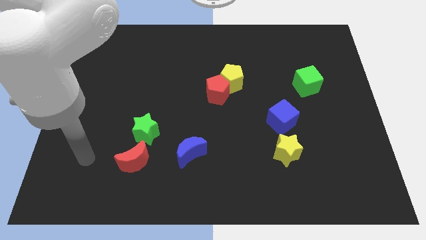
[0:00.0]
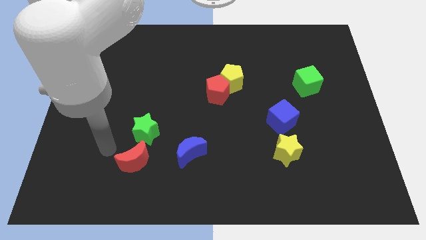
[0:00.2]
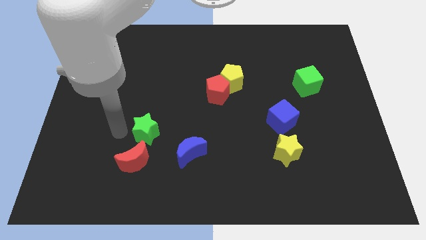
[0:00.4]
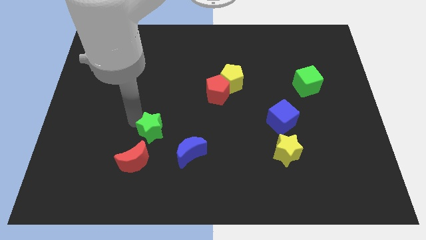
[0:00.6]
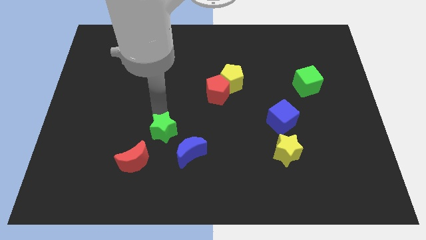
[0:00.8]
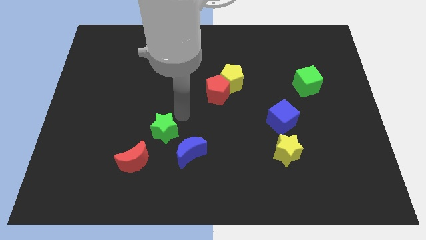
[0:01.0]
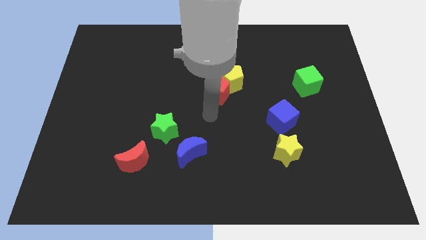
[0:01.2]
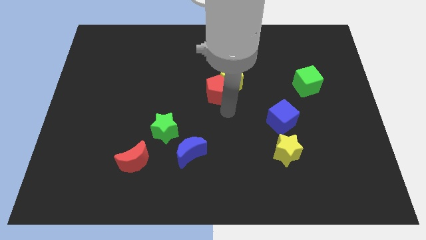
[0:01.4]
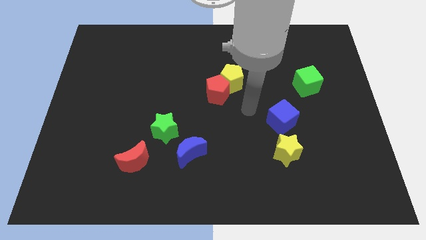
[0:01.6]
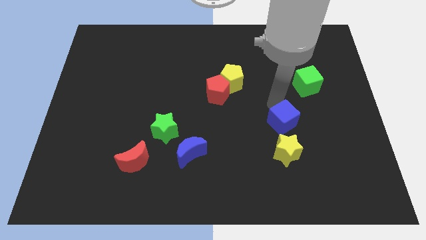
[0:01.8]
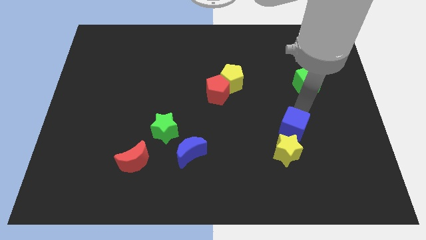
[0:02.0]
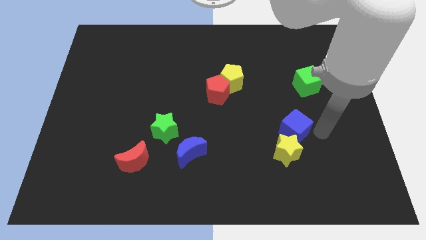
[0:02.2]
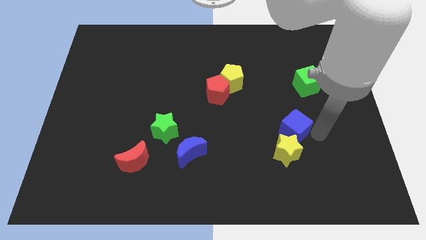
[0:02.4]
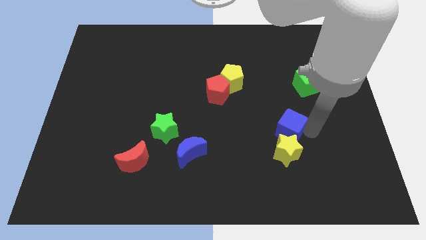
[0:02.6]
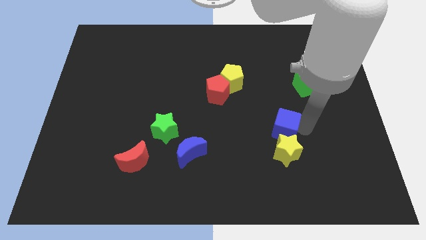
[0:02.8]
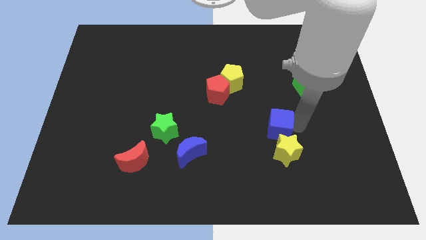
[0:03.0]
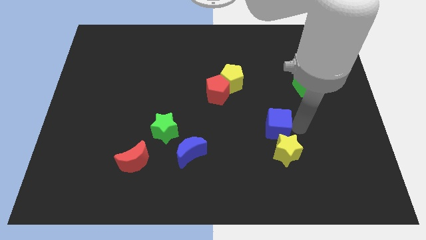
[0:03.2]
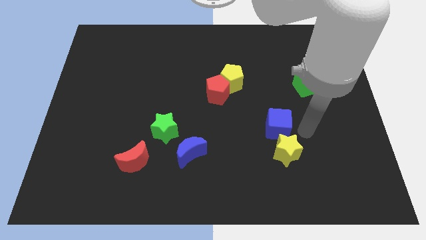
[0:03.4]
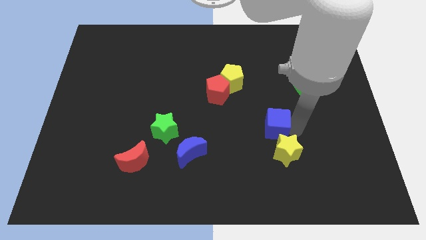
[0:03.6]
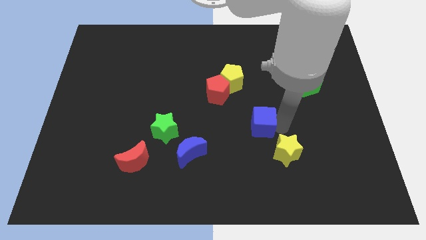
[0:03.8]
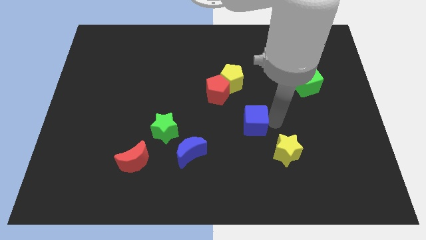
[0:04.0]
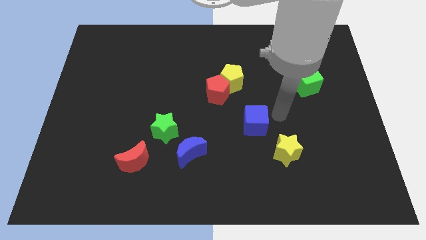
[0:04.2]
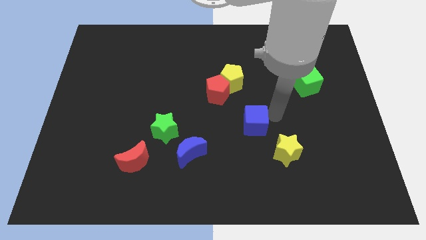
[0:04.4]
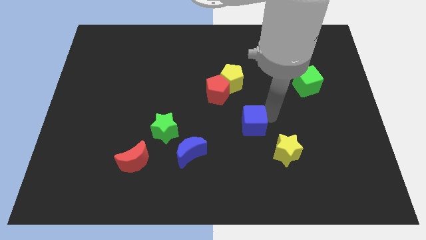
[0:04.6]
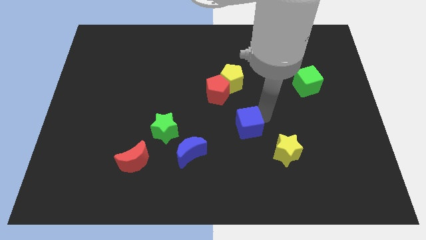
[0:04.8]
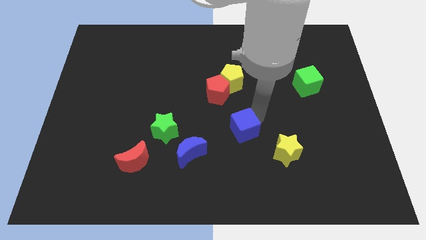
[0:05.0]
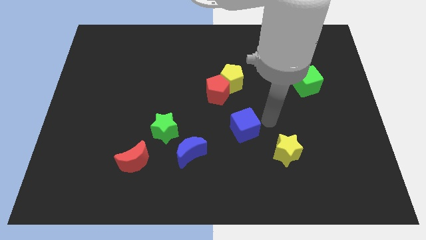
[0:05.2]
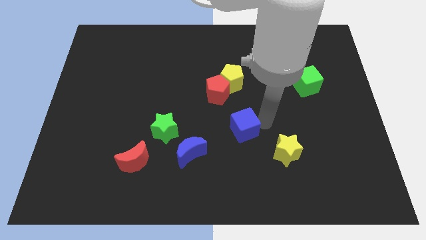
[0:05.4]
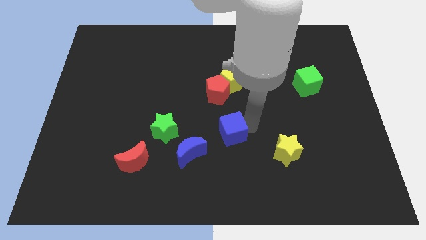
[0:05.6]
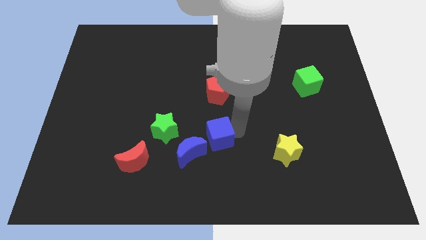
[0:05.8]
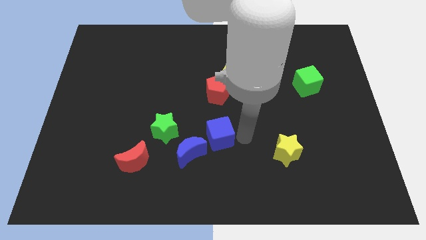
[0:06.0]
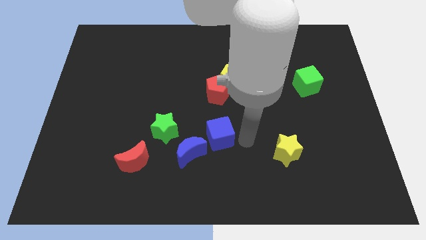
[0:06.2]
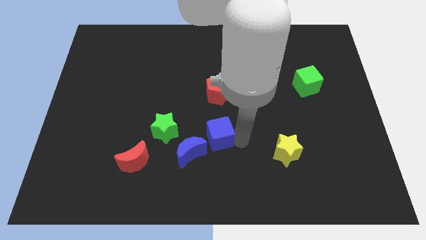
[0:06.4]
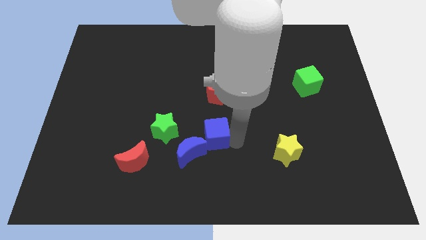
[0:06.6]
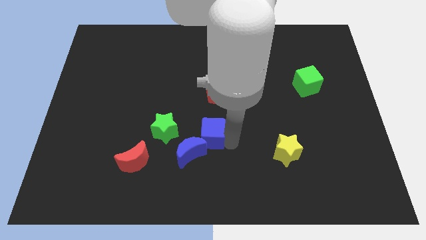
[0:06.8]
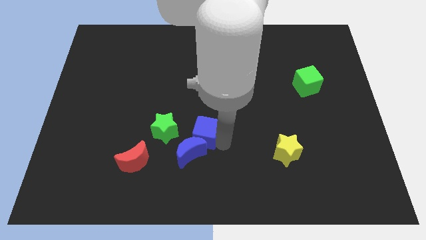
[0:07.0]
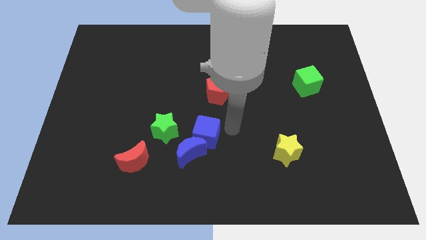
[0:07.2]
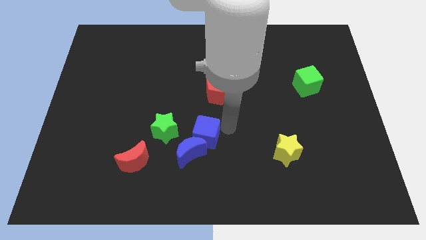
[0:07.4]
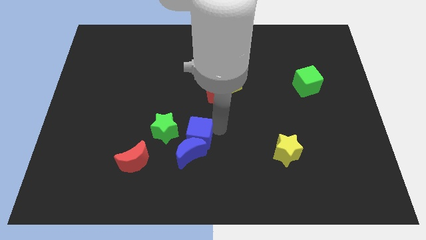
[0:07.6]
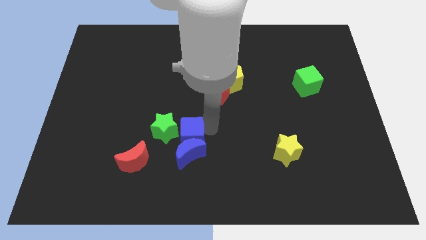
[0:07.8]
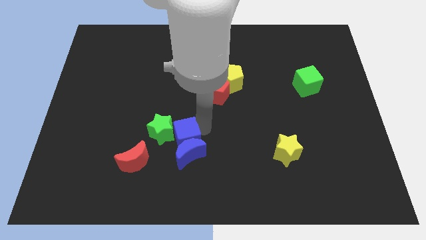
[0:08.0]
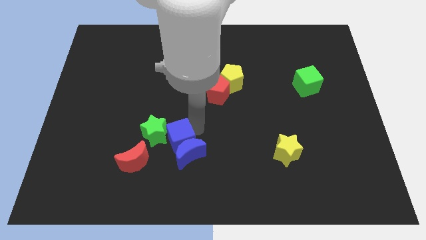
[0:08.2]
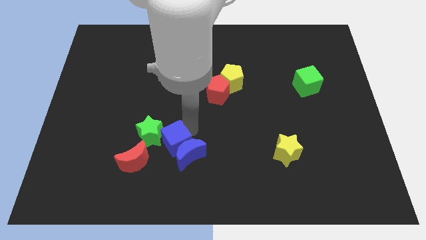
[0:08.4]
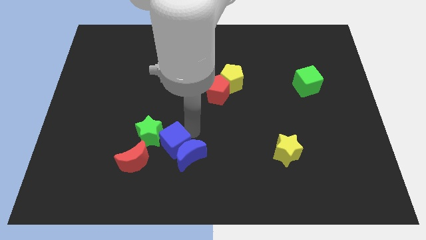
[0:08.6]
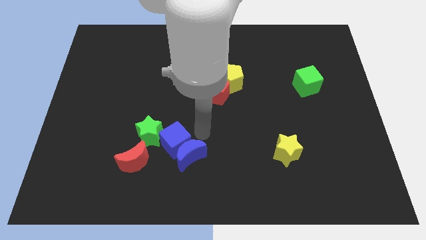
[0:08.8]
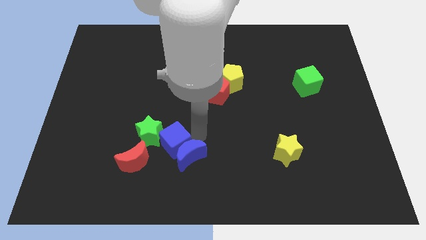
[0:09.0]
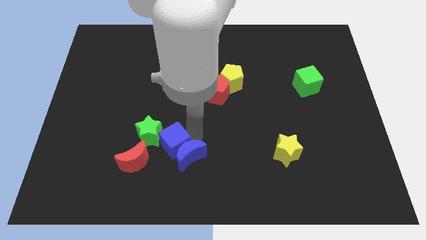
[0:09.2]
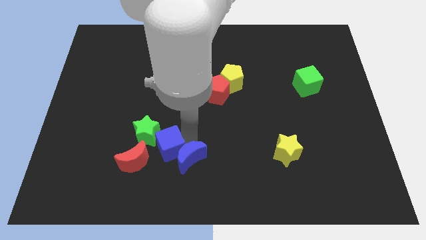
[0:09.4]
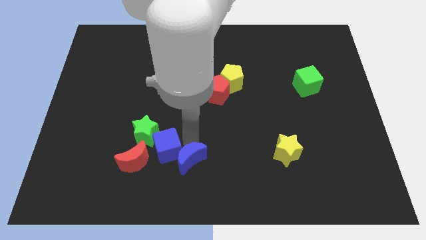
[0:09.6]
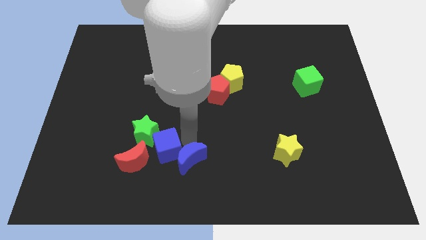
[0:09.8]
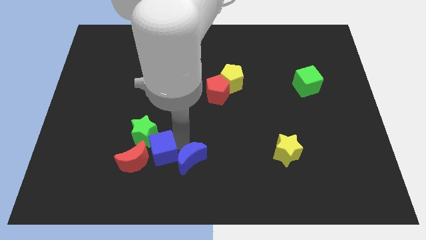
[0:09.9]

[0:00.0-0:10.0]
put the blue cube to the red moon

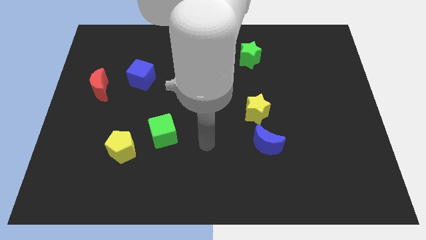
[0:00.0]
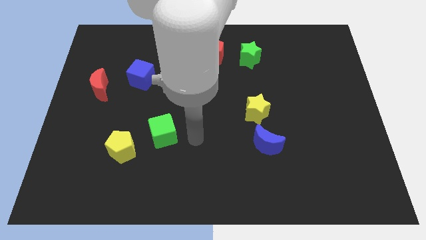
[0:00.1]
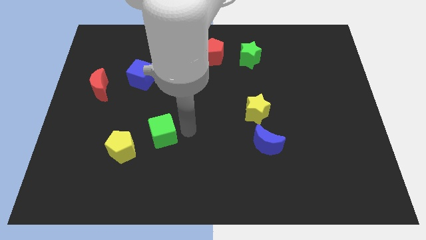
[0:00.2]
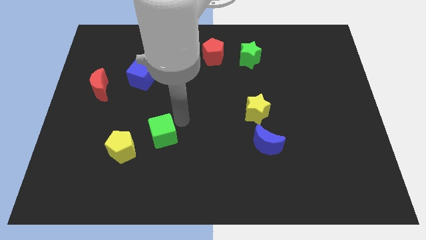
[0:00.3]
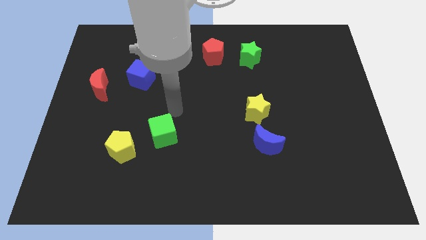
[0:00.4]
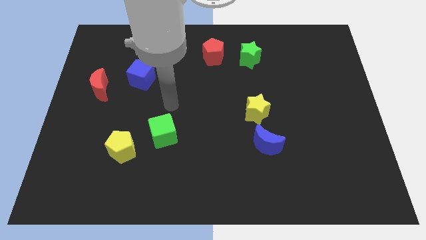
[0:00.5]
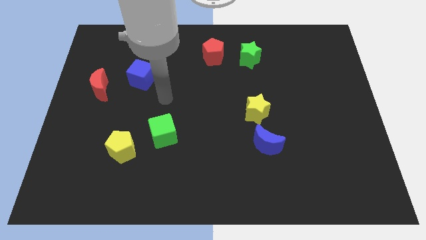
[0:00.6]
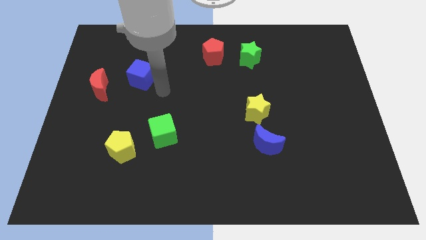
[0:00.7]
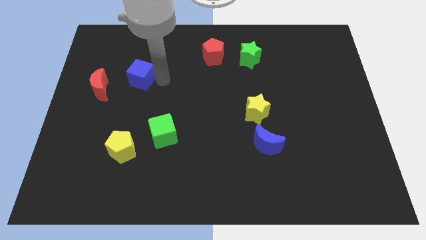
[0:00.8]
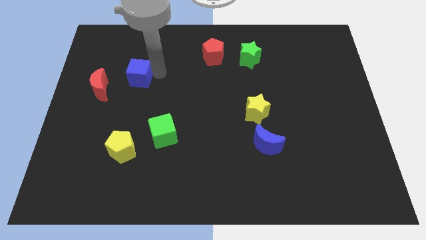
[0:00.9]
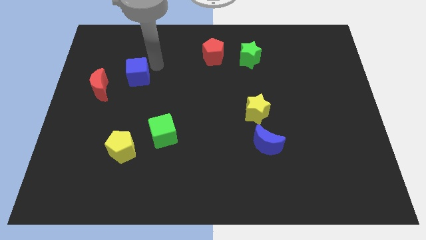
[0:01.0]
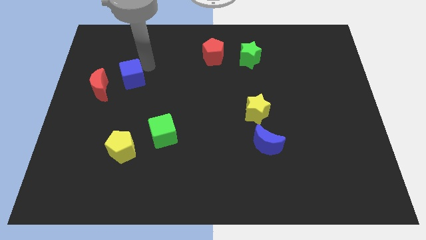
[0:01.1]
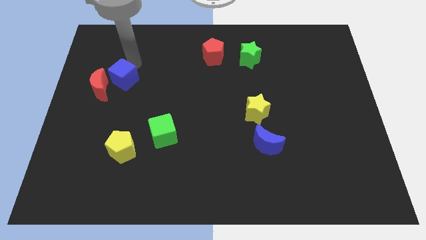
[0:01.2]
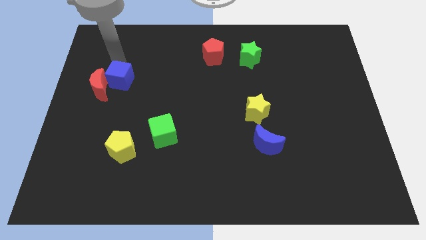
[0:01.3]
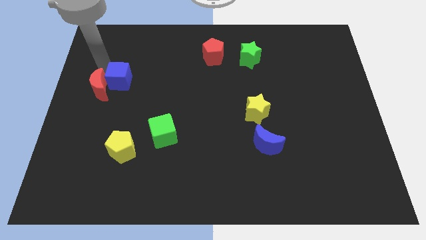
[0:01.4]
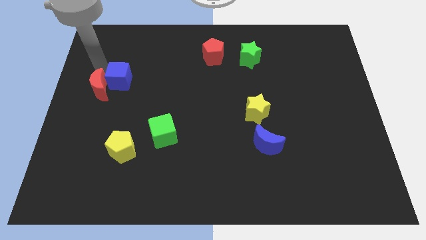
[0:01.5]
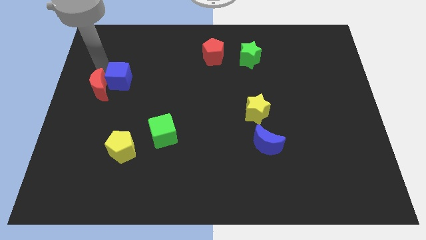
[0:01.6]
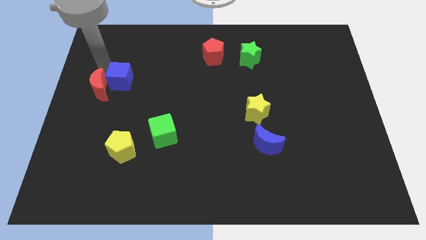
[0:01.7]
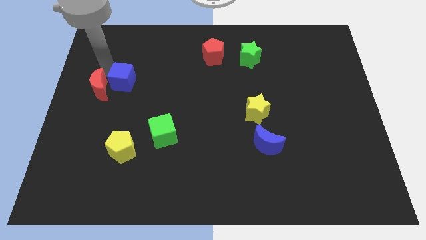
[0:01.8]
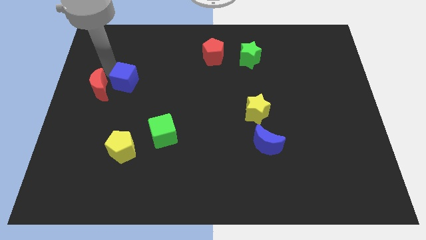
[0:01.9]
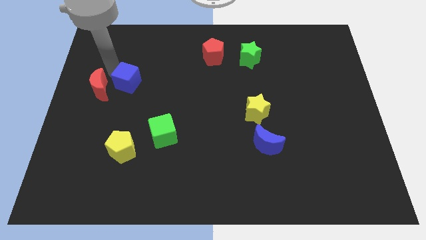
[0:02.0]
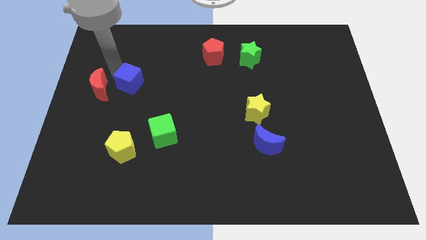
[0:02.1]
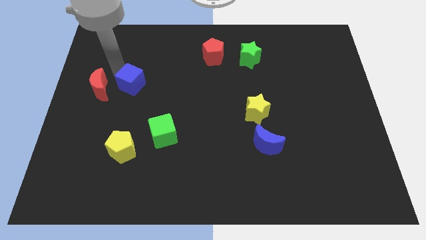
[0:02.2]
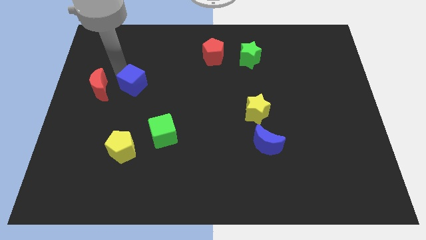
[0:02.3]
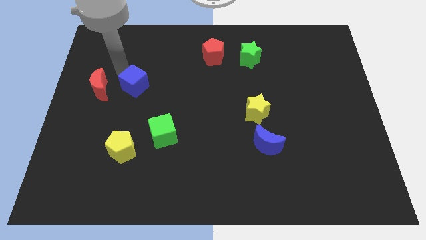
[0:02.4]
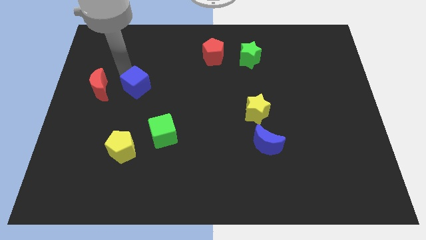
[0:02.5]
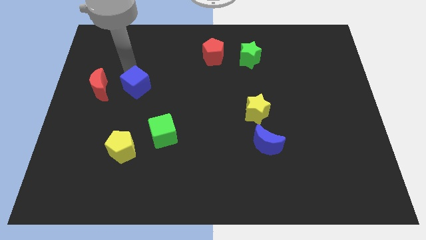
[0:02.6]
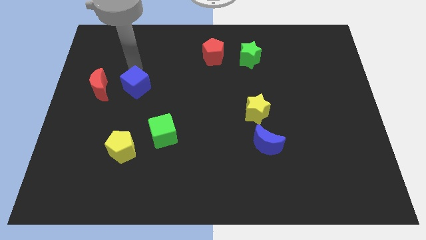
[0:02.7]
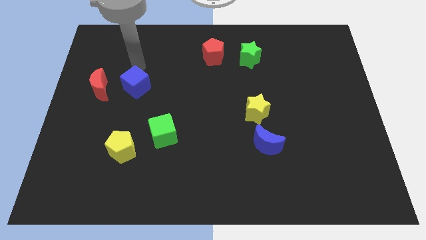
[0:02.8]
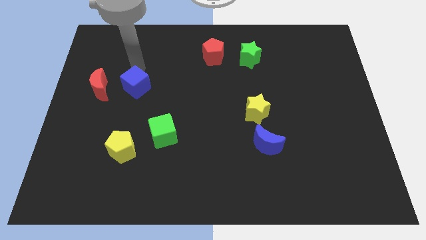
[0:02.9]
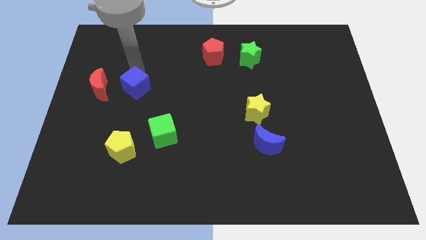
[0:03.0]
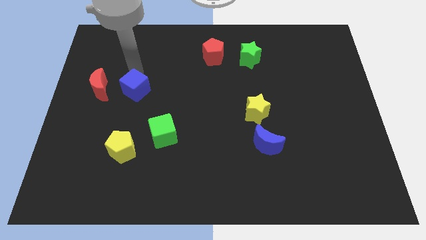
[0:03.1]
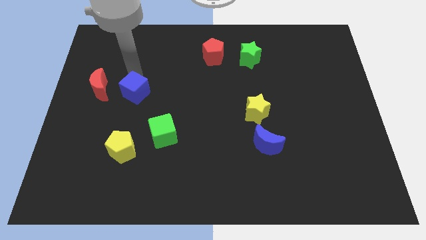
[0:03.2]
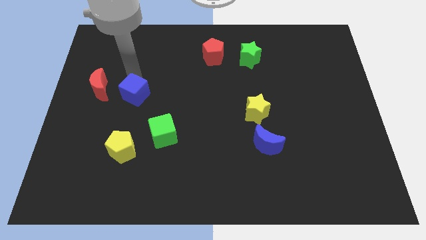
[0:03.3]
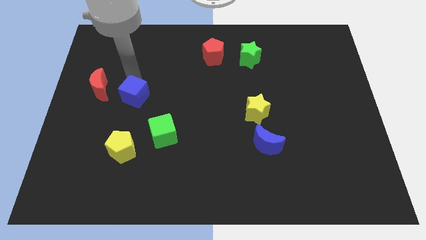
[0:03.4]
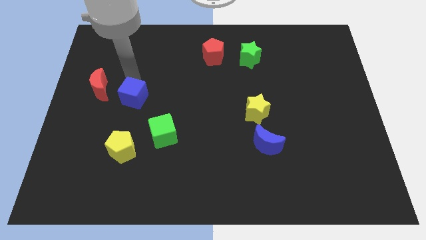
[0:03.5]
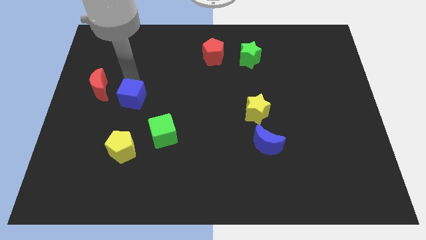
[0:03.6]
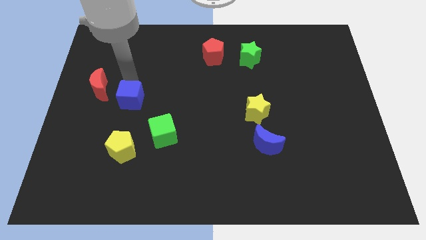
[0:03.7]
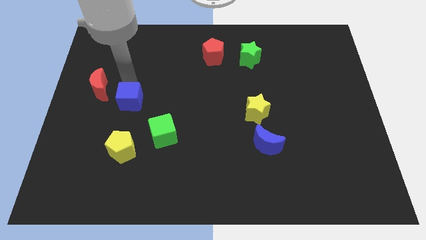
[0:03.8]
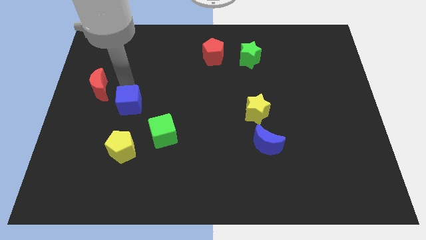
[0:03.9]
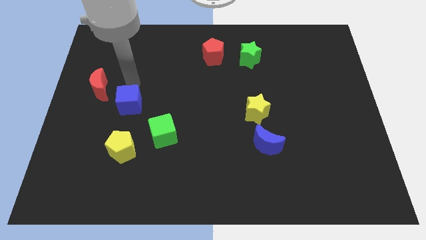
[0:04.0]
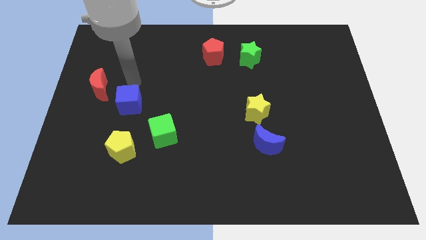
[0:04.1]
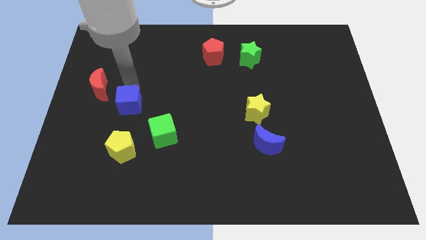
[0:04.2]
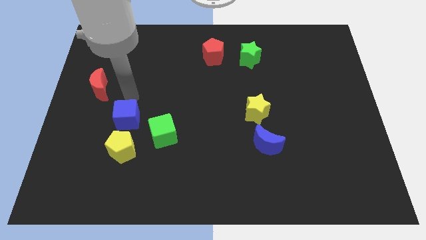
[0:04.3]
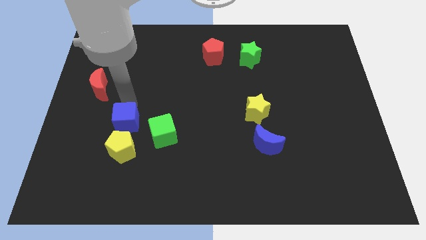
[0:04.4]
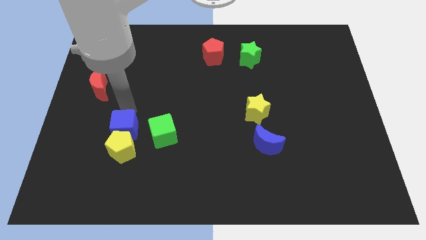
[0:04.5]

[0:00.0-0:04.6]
push the blue cube next to the yellow pentagon
